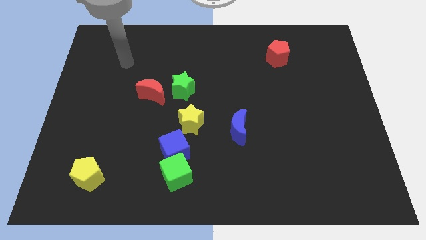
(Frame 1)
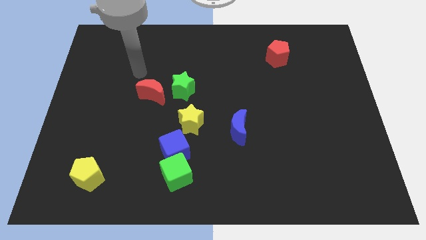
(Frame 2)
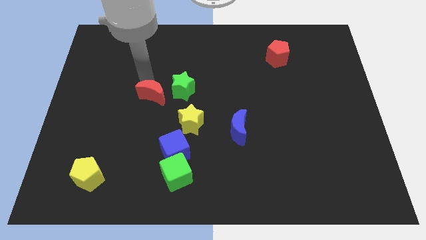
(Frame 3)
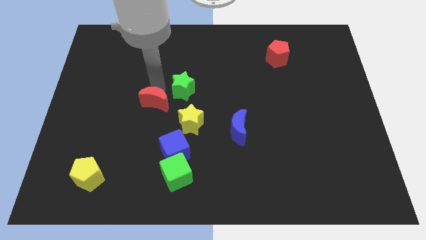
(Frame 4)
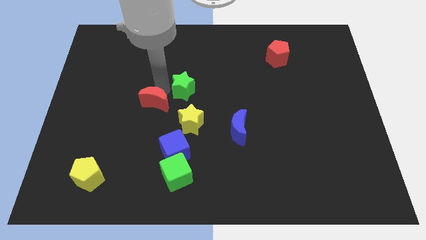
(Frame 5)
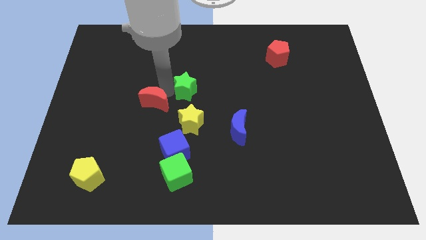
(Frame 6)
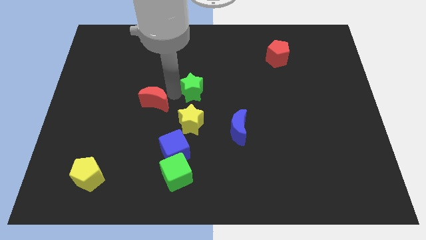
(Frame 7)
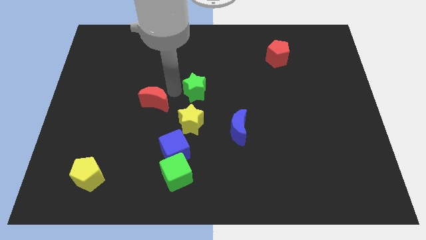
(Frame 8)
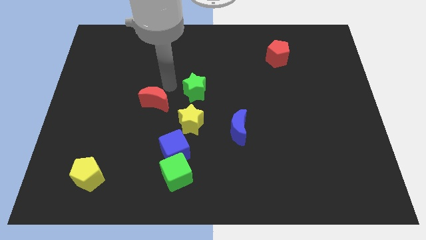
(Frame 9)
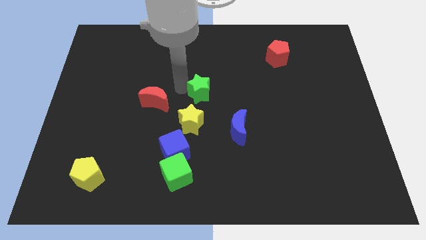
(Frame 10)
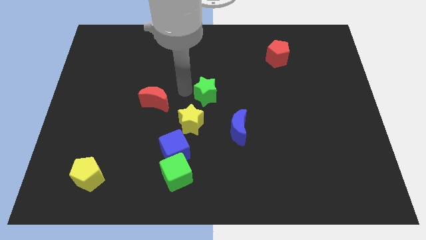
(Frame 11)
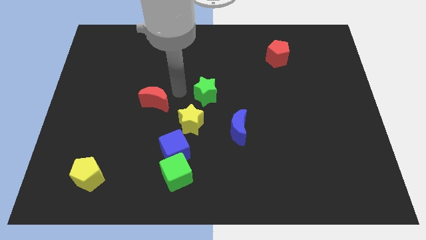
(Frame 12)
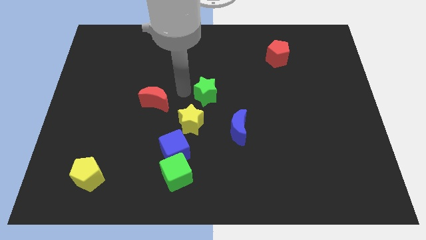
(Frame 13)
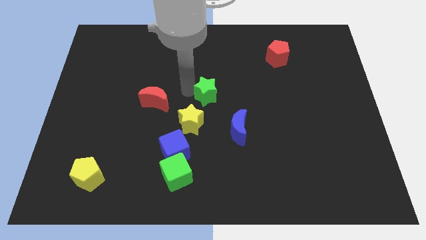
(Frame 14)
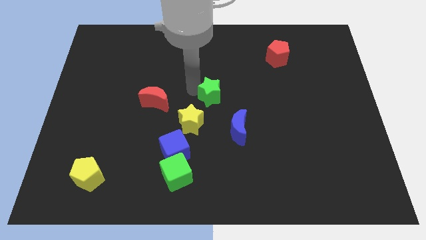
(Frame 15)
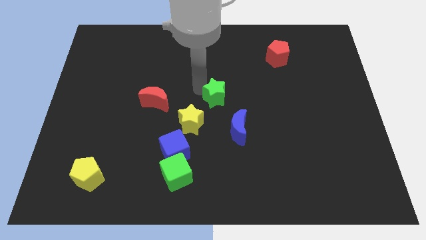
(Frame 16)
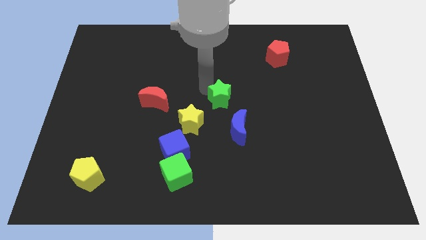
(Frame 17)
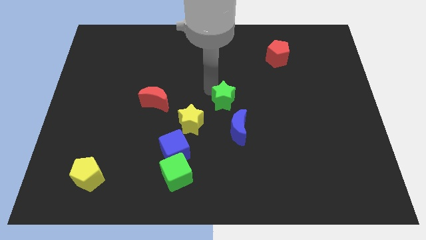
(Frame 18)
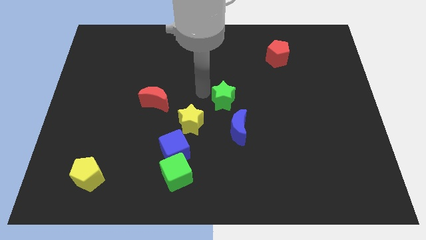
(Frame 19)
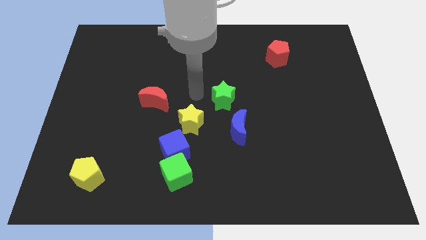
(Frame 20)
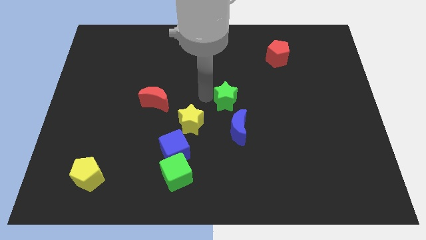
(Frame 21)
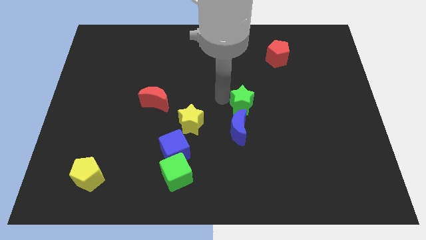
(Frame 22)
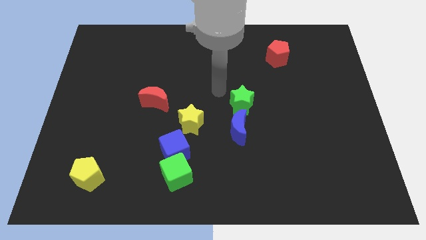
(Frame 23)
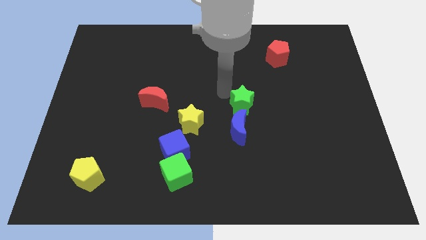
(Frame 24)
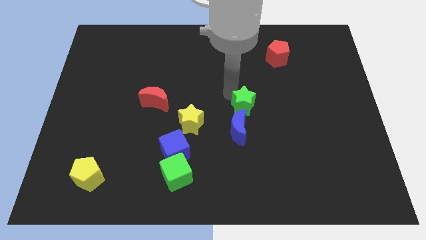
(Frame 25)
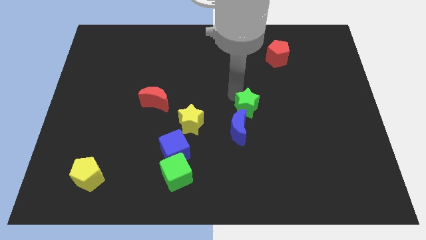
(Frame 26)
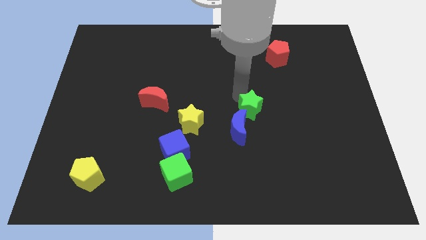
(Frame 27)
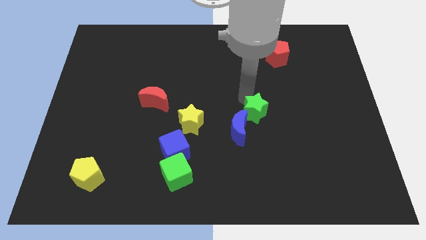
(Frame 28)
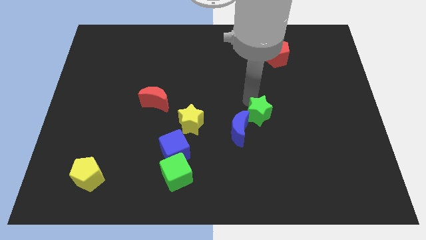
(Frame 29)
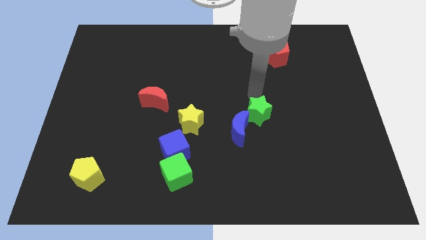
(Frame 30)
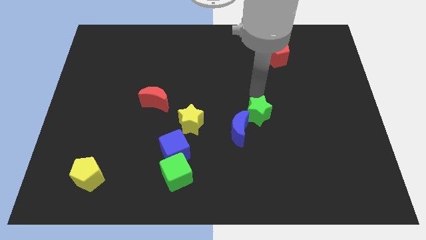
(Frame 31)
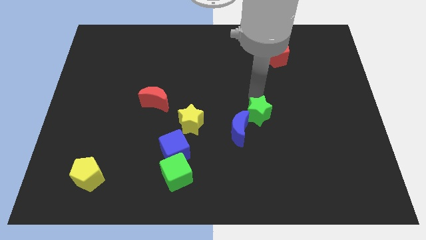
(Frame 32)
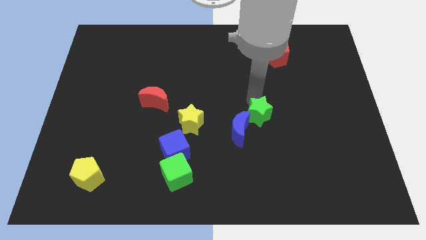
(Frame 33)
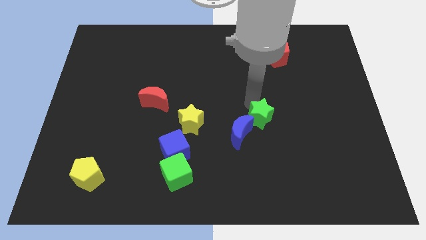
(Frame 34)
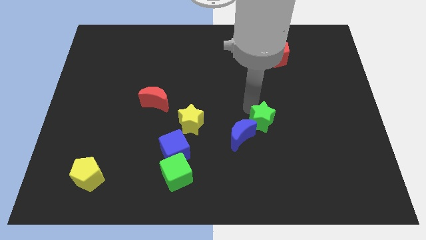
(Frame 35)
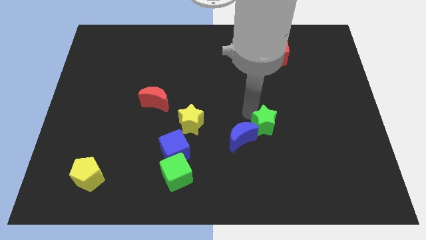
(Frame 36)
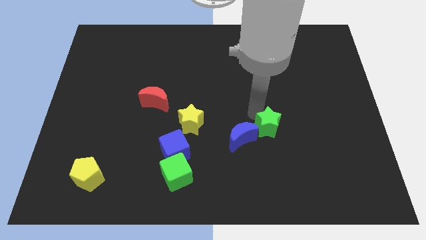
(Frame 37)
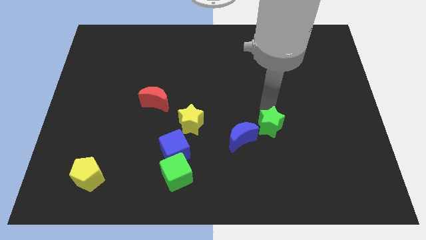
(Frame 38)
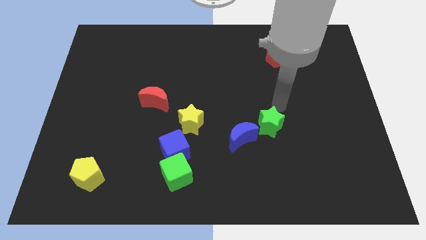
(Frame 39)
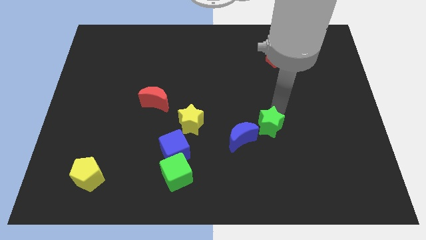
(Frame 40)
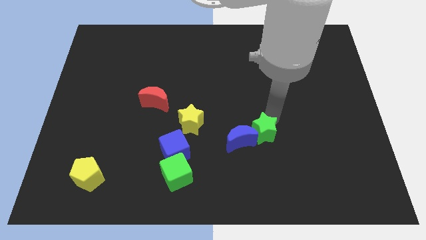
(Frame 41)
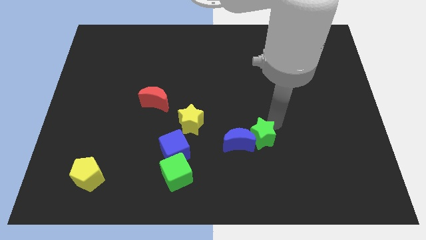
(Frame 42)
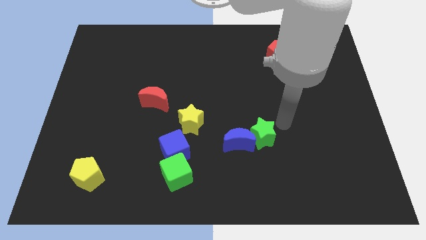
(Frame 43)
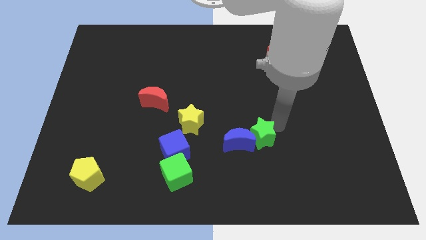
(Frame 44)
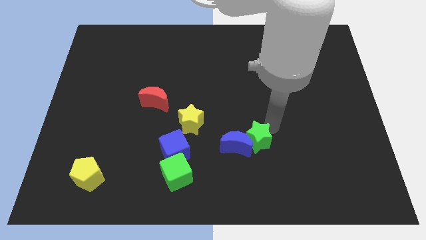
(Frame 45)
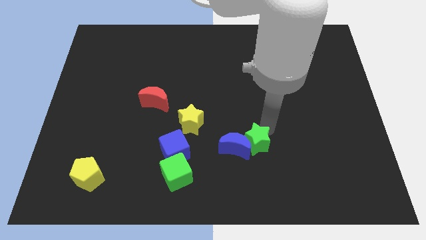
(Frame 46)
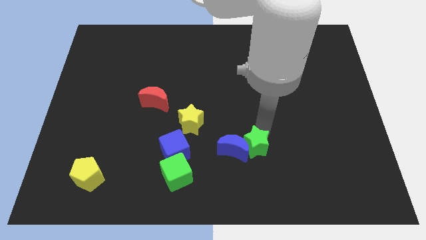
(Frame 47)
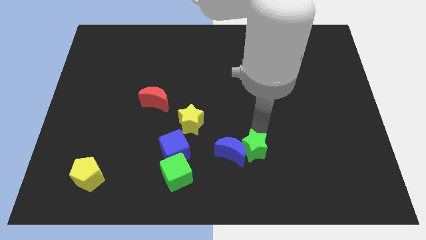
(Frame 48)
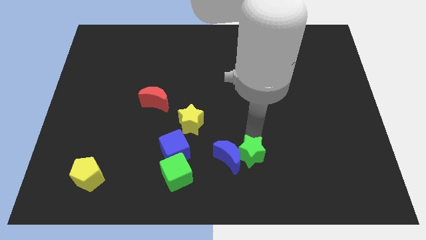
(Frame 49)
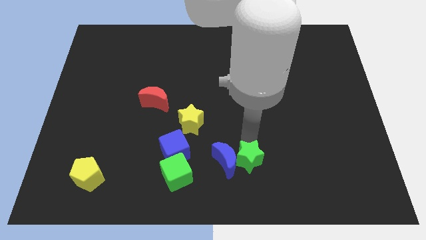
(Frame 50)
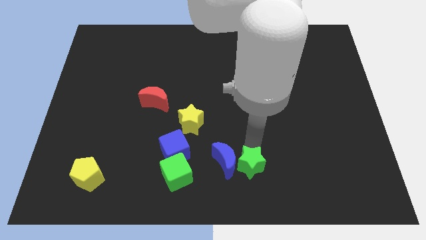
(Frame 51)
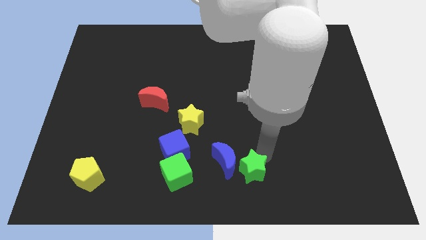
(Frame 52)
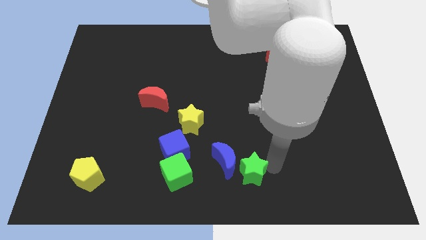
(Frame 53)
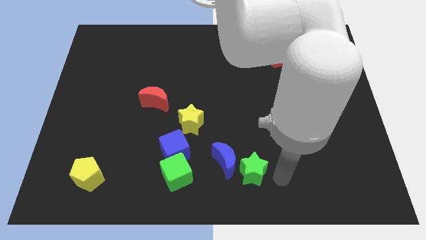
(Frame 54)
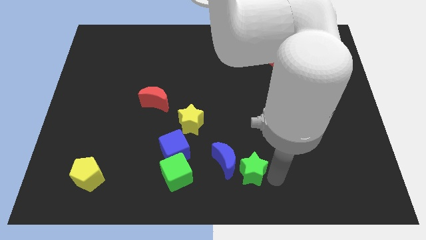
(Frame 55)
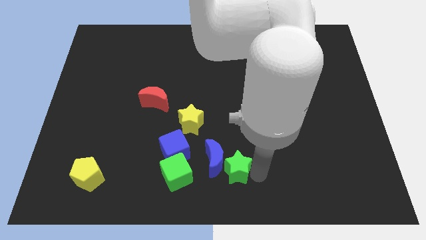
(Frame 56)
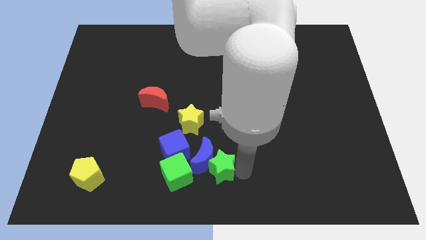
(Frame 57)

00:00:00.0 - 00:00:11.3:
slide the green star to the bottom right side of the blue cube
